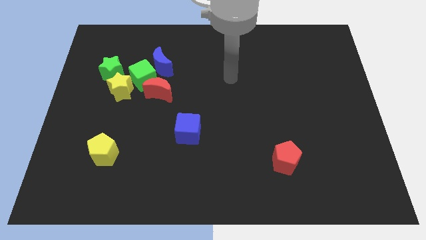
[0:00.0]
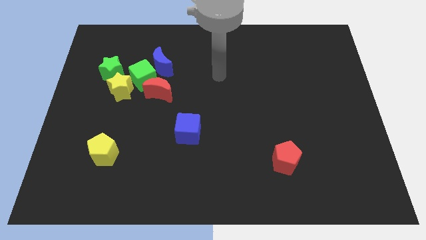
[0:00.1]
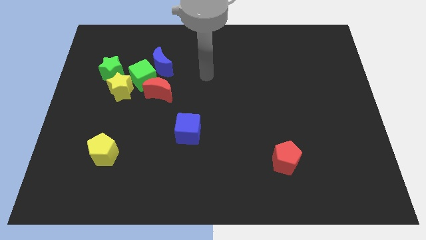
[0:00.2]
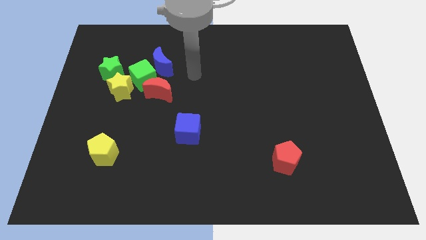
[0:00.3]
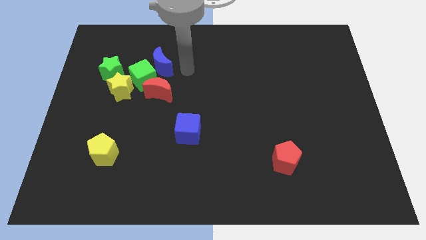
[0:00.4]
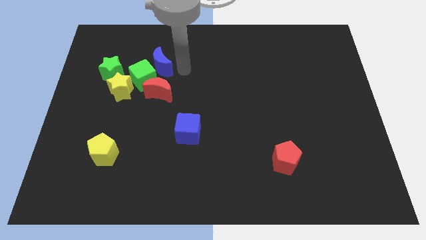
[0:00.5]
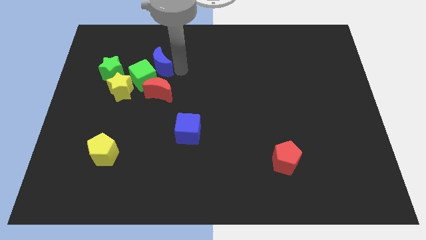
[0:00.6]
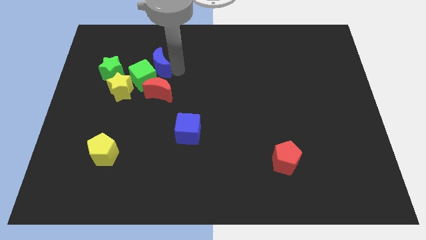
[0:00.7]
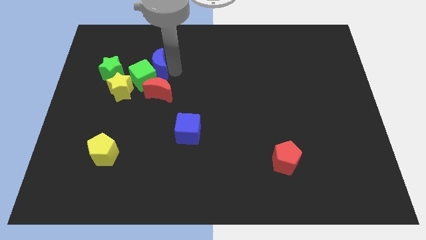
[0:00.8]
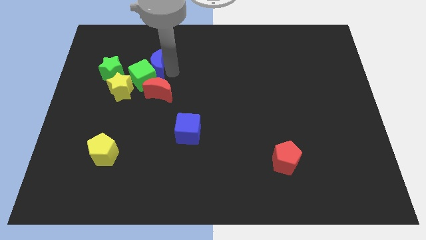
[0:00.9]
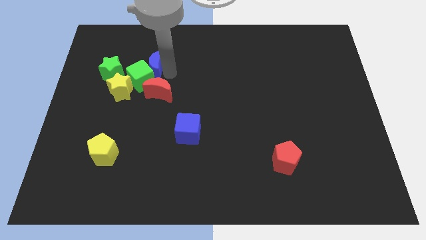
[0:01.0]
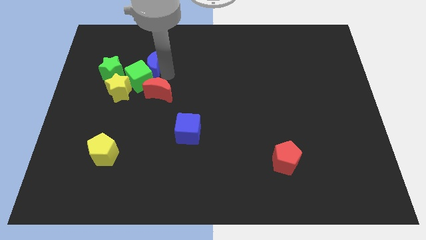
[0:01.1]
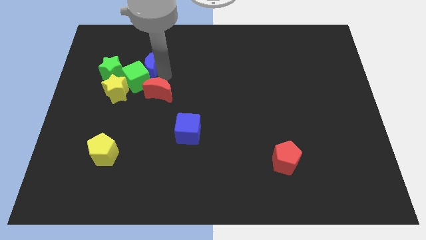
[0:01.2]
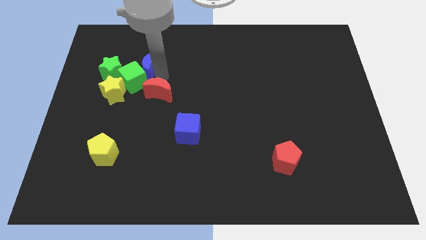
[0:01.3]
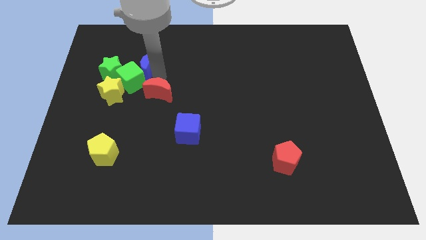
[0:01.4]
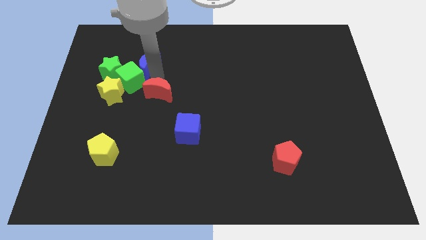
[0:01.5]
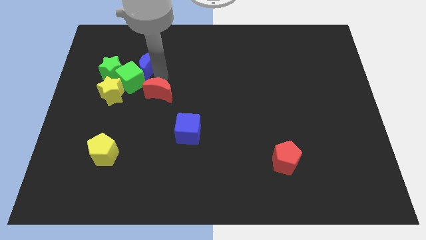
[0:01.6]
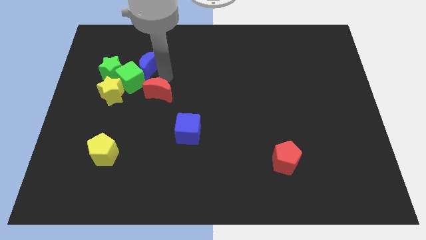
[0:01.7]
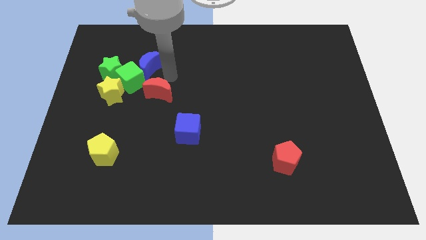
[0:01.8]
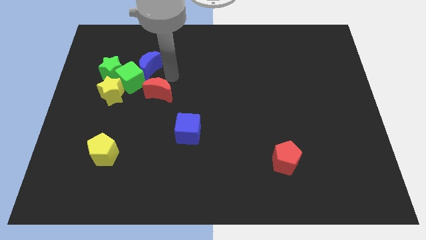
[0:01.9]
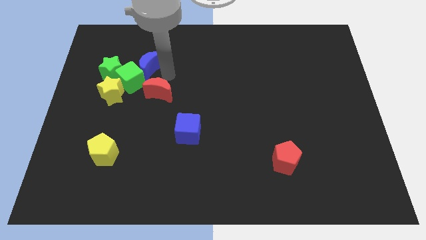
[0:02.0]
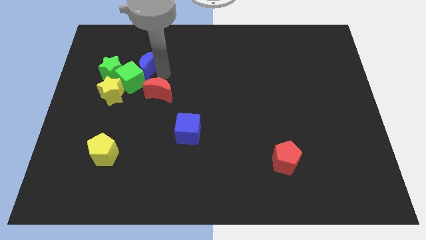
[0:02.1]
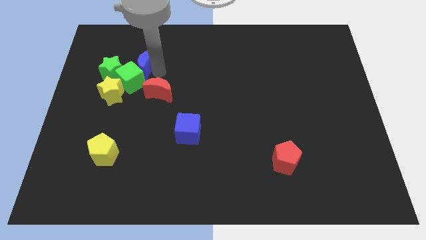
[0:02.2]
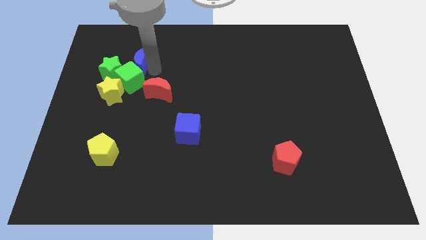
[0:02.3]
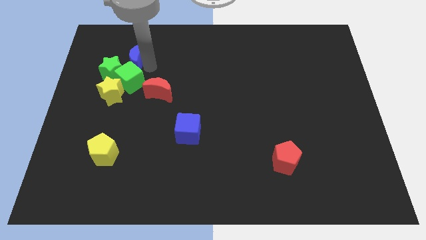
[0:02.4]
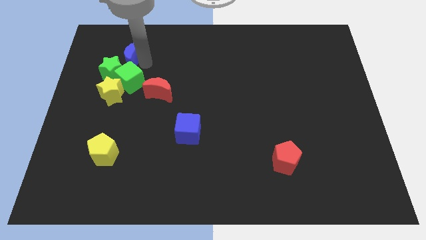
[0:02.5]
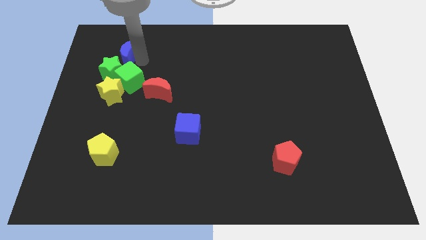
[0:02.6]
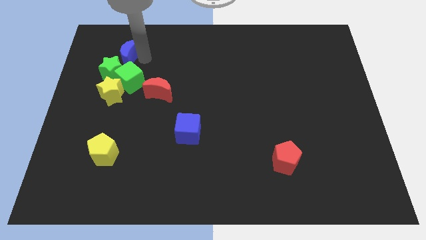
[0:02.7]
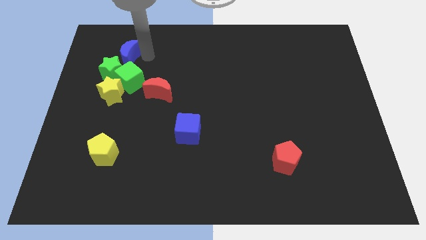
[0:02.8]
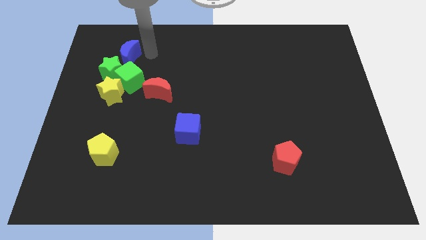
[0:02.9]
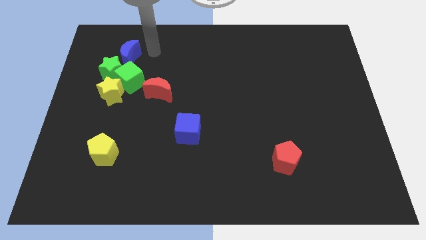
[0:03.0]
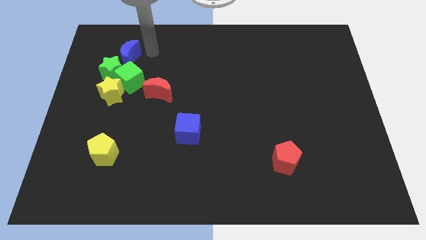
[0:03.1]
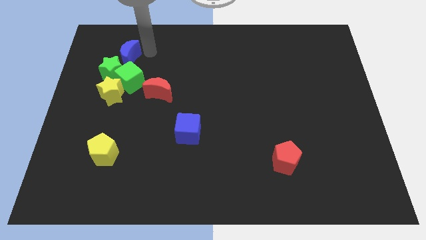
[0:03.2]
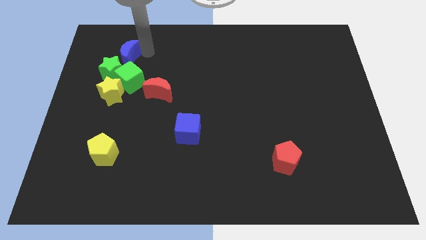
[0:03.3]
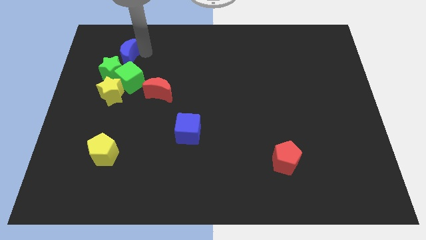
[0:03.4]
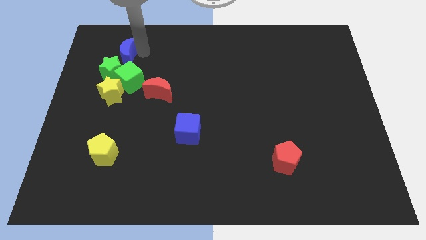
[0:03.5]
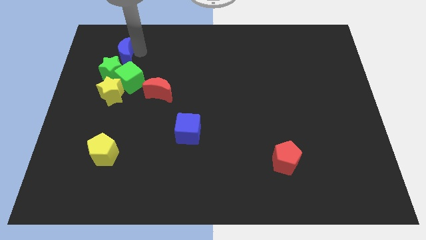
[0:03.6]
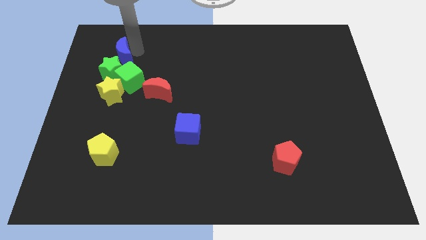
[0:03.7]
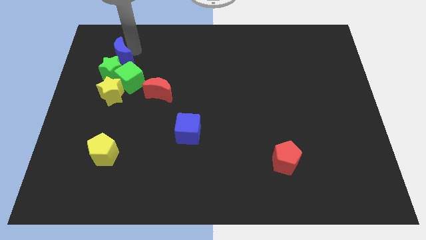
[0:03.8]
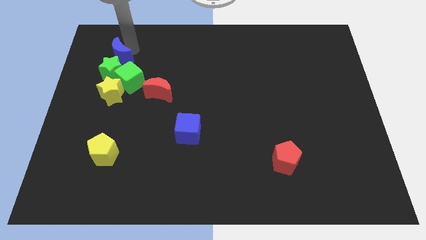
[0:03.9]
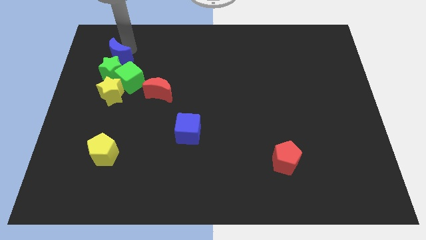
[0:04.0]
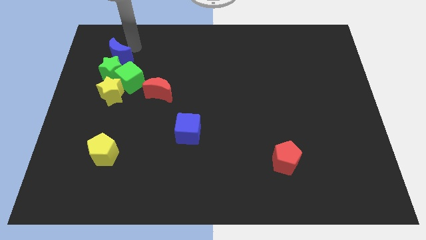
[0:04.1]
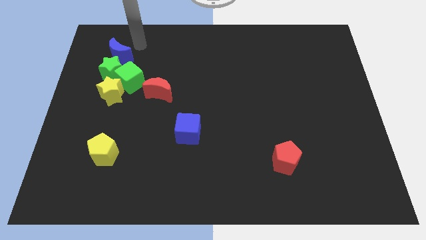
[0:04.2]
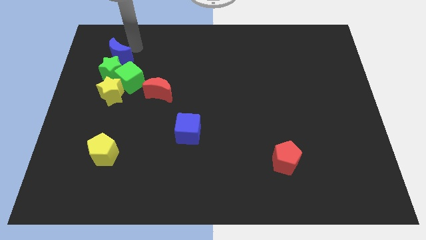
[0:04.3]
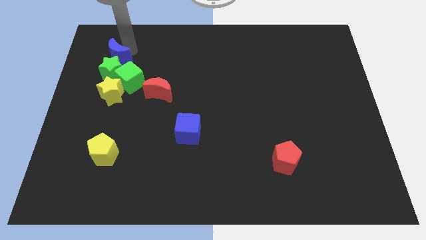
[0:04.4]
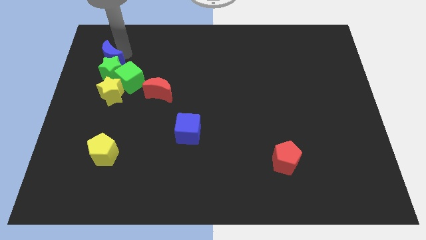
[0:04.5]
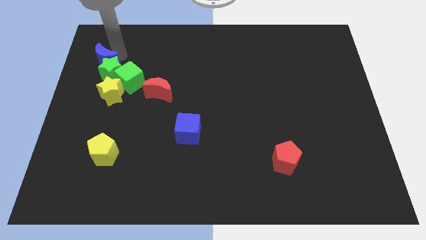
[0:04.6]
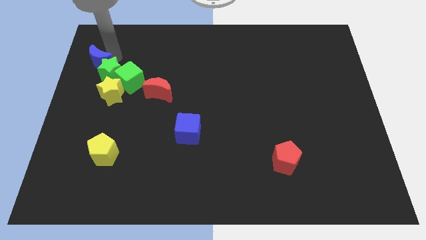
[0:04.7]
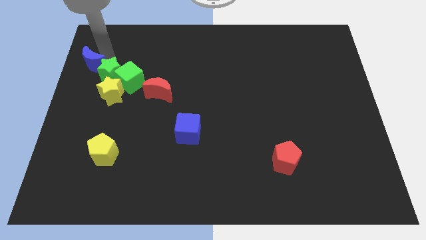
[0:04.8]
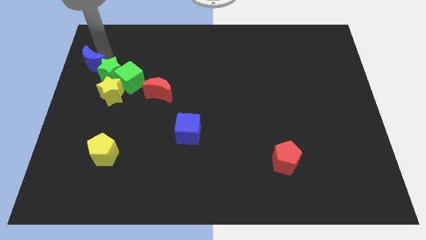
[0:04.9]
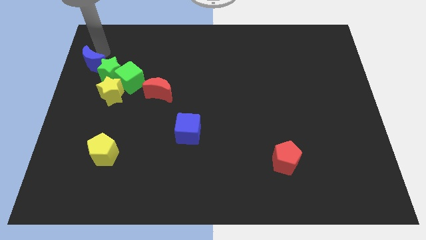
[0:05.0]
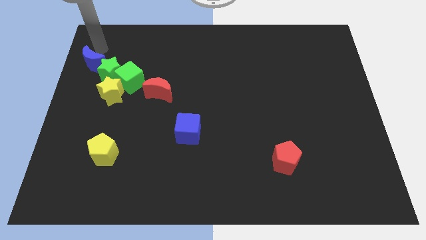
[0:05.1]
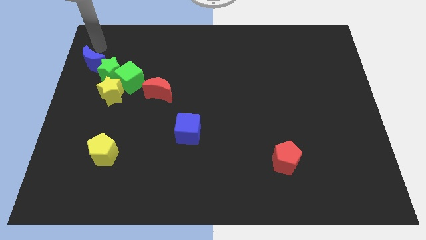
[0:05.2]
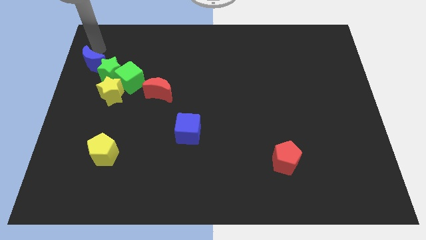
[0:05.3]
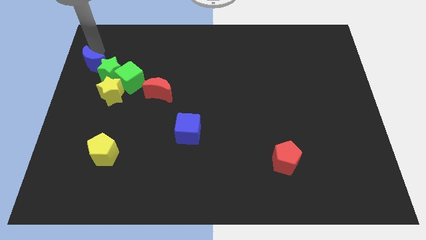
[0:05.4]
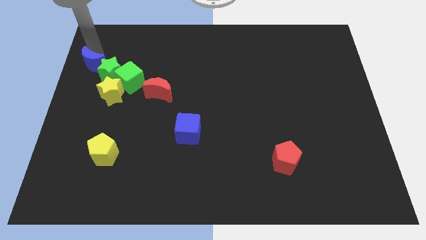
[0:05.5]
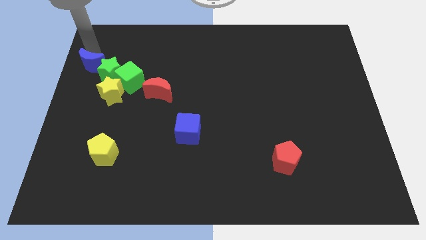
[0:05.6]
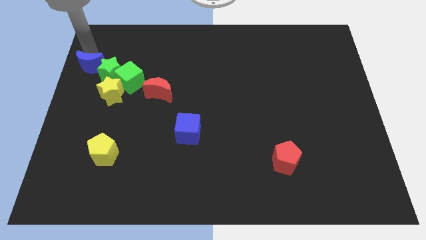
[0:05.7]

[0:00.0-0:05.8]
slide the blue moon just left of the green cube

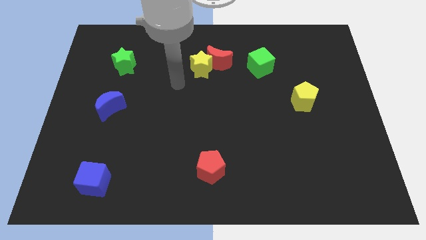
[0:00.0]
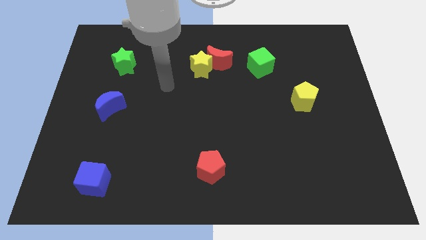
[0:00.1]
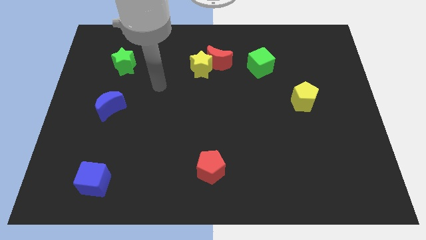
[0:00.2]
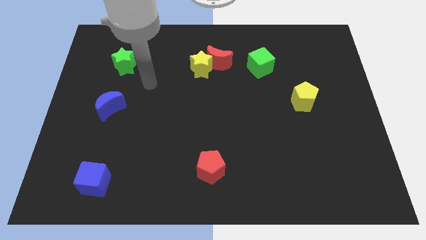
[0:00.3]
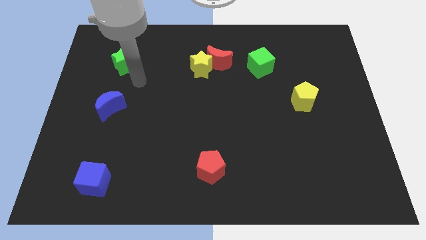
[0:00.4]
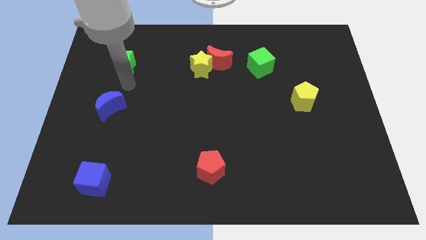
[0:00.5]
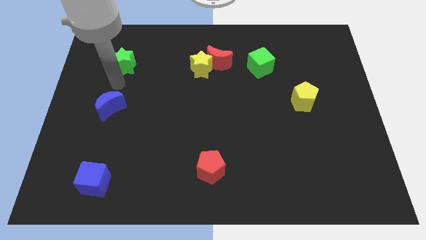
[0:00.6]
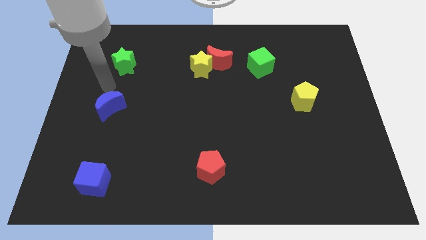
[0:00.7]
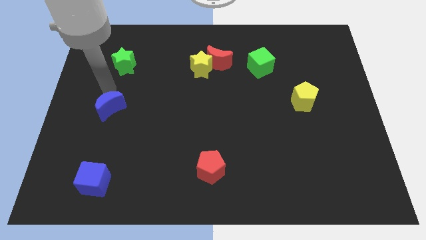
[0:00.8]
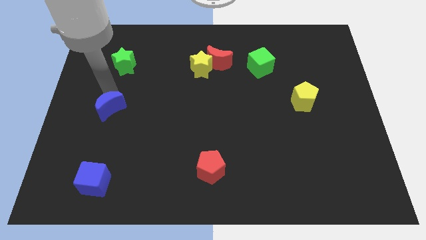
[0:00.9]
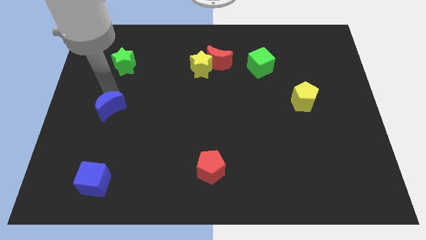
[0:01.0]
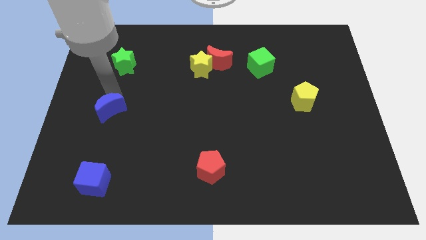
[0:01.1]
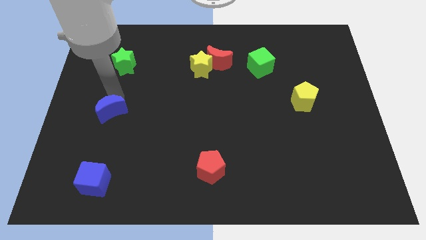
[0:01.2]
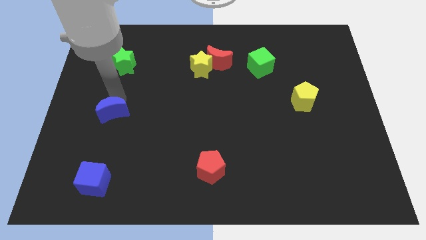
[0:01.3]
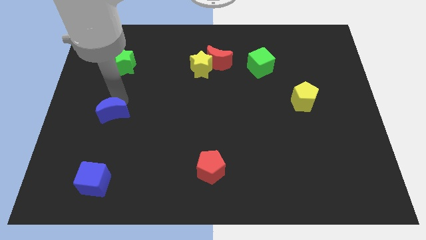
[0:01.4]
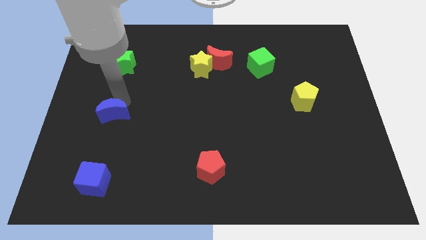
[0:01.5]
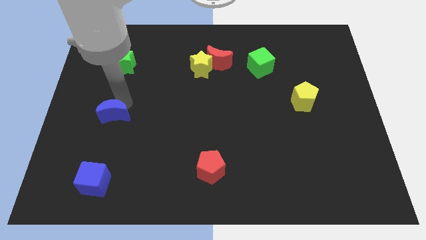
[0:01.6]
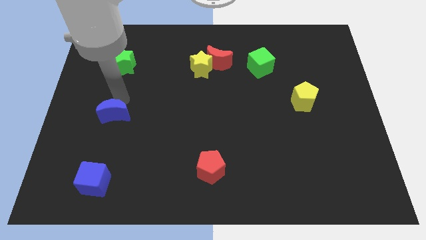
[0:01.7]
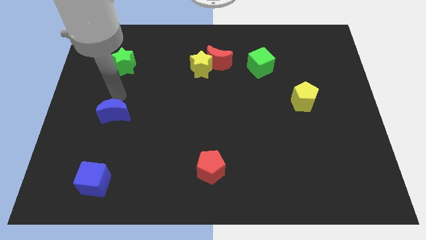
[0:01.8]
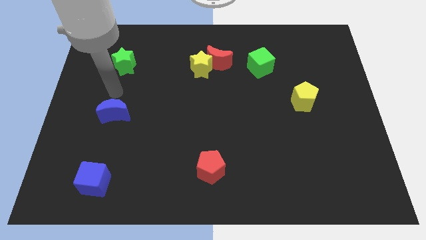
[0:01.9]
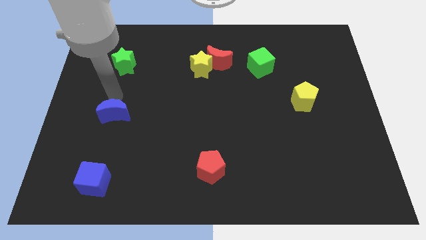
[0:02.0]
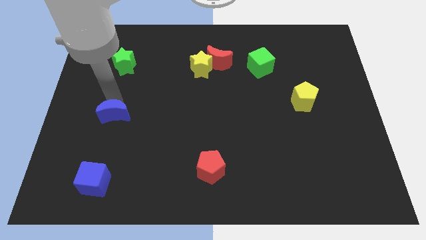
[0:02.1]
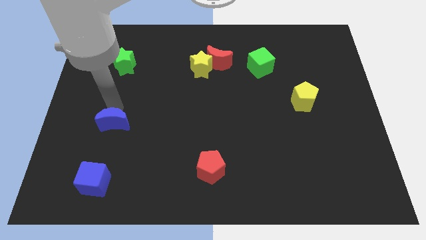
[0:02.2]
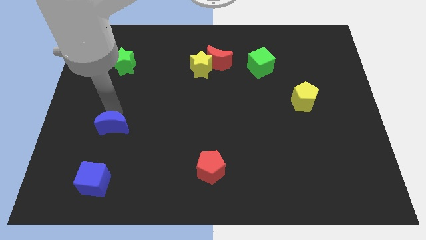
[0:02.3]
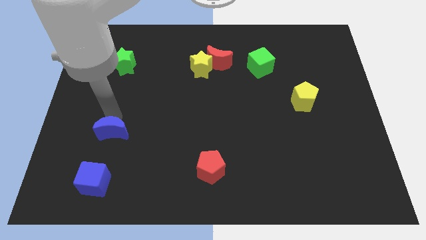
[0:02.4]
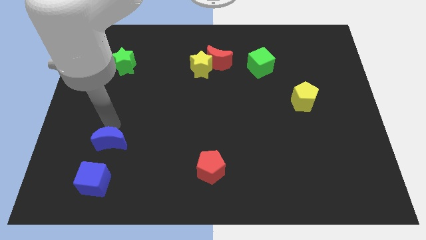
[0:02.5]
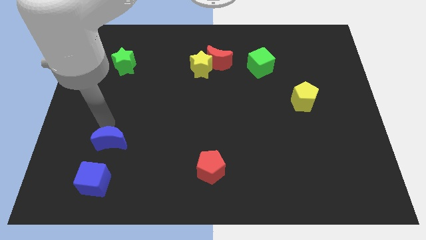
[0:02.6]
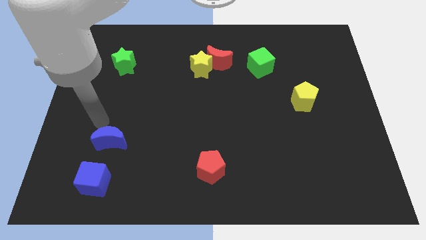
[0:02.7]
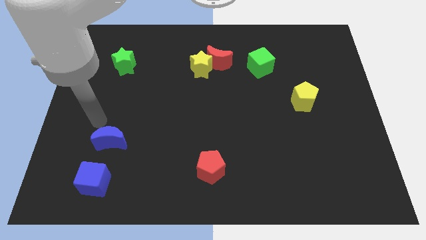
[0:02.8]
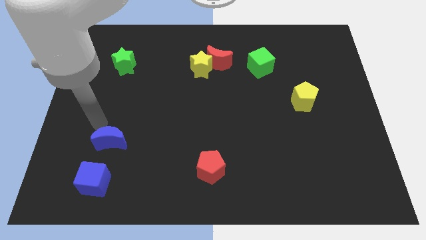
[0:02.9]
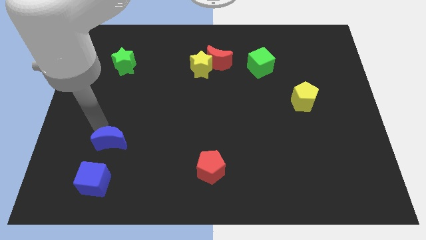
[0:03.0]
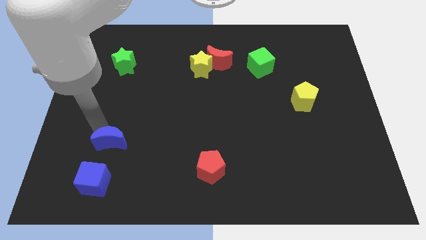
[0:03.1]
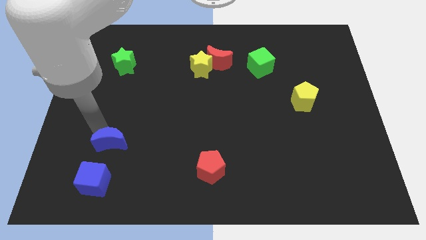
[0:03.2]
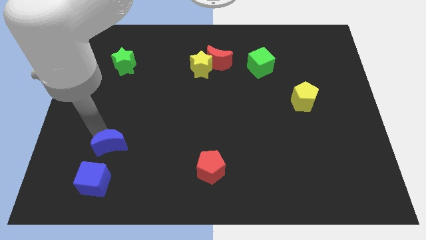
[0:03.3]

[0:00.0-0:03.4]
slide the blue moon diagonally up and to the right of the blue cube
